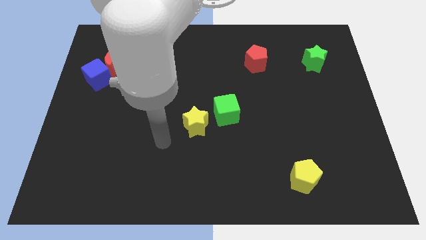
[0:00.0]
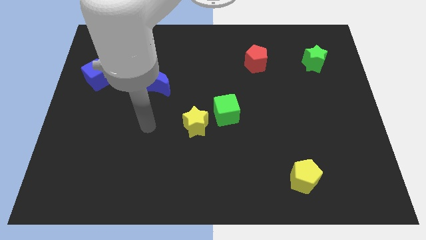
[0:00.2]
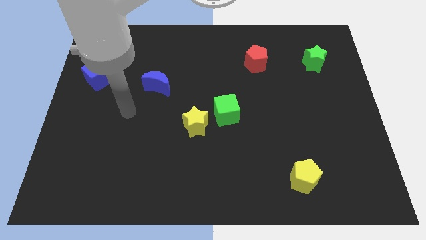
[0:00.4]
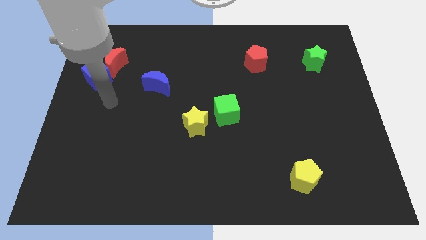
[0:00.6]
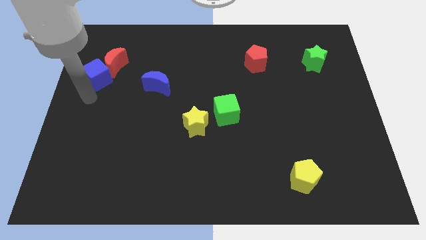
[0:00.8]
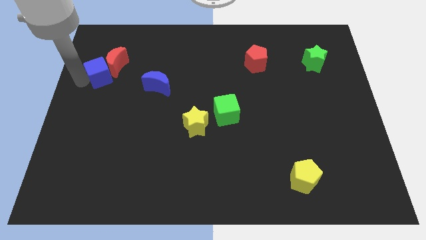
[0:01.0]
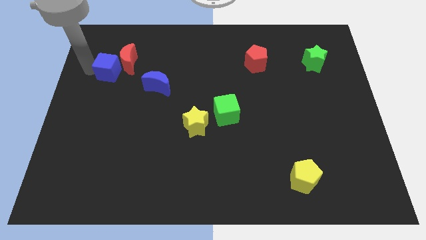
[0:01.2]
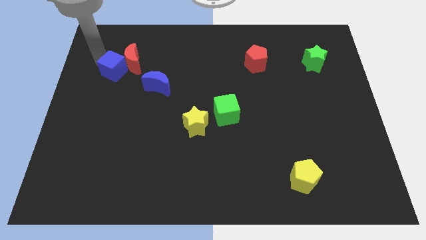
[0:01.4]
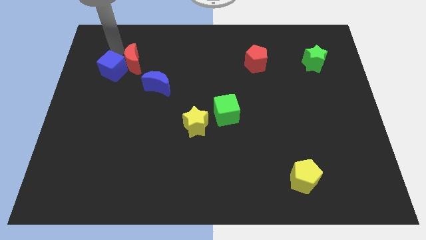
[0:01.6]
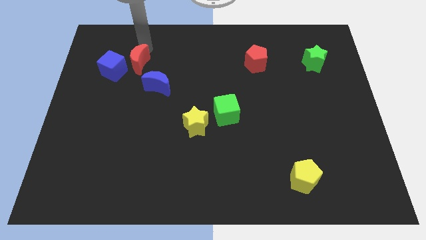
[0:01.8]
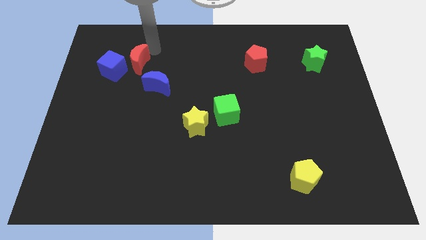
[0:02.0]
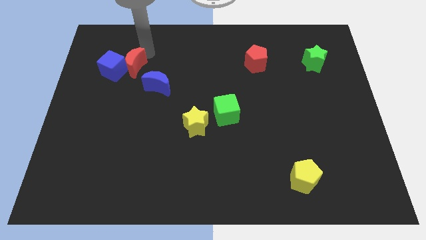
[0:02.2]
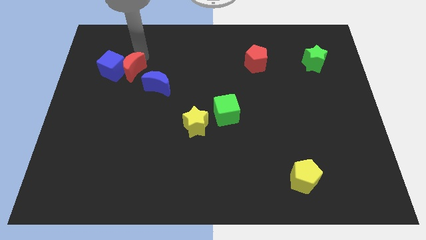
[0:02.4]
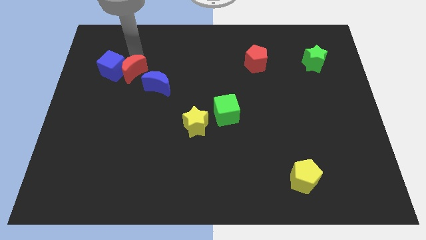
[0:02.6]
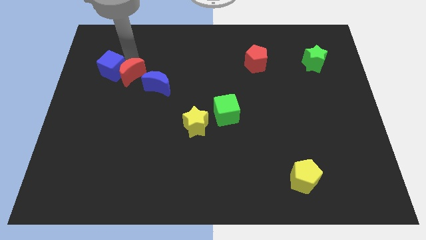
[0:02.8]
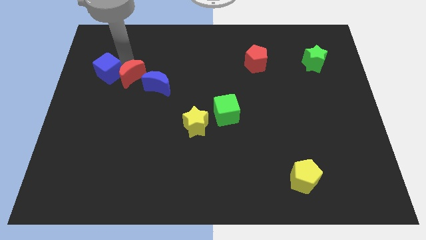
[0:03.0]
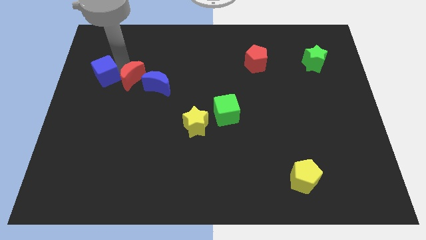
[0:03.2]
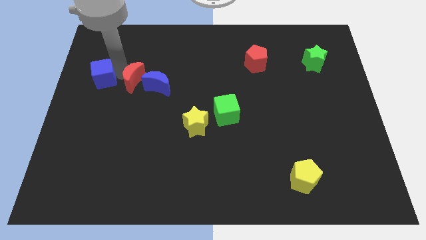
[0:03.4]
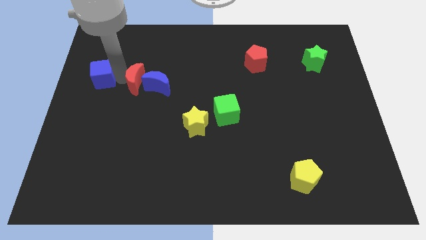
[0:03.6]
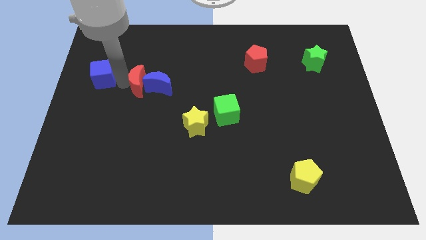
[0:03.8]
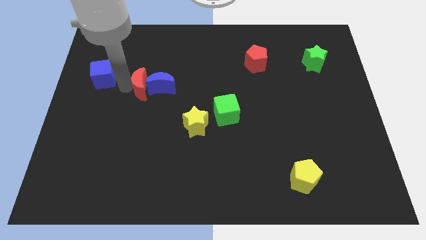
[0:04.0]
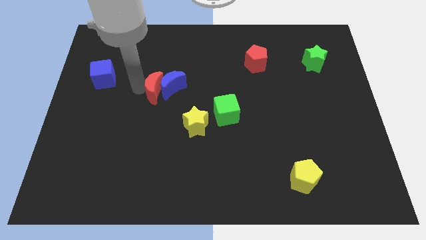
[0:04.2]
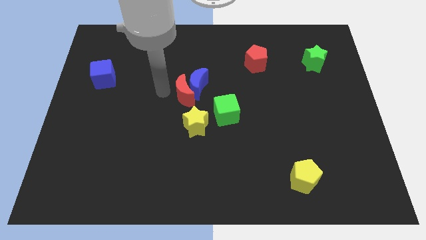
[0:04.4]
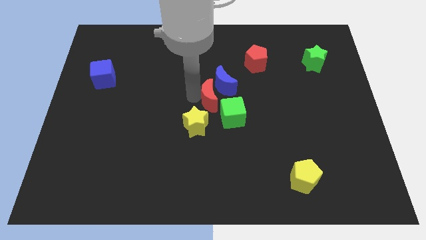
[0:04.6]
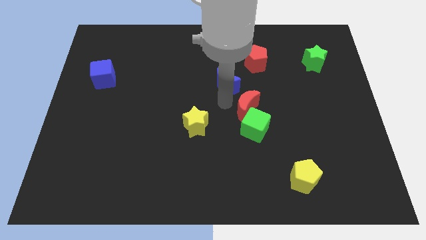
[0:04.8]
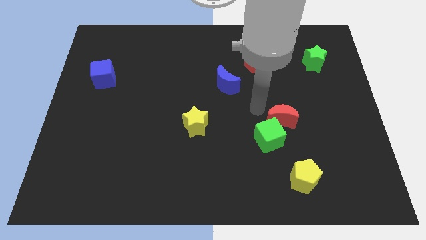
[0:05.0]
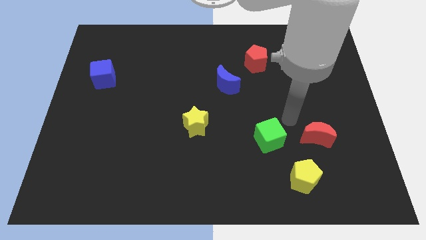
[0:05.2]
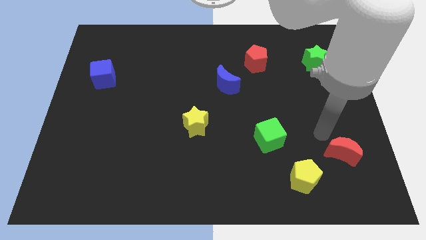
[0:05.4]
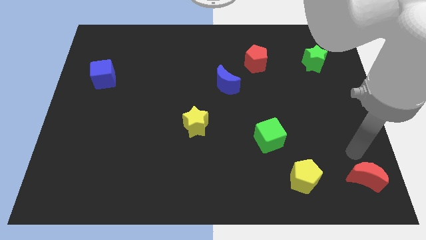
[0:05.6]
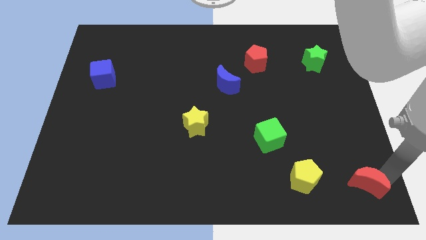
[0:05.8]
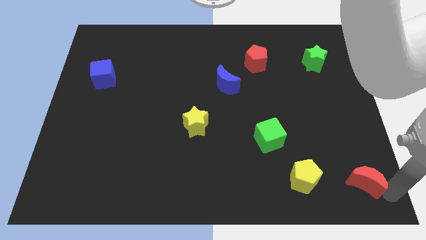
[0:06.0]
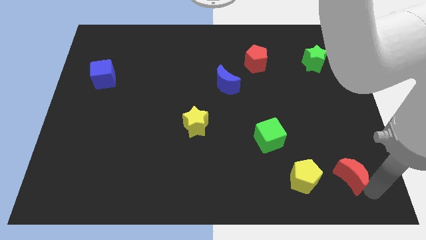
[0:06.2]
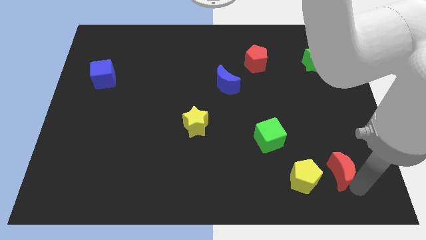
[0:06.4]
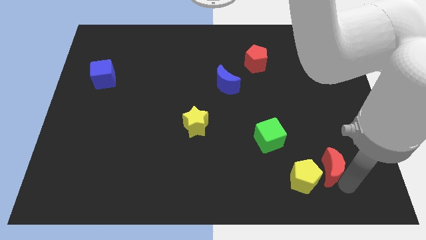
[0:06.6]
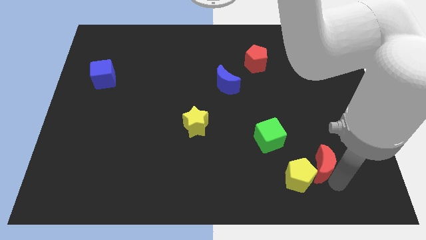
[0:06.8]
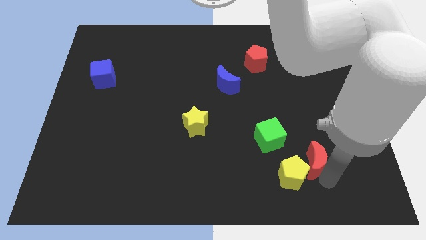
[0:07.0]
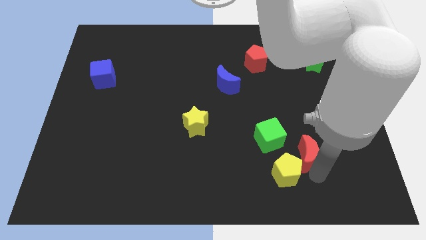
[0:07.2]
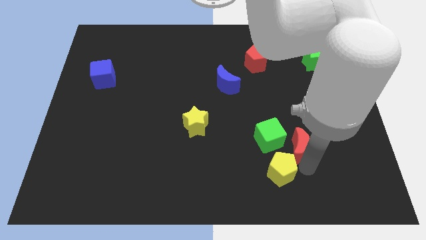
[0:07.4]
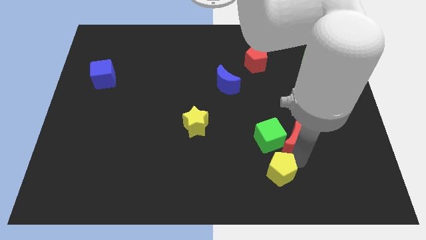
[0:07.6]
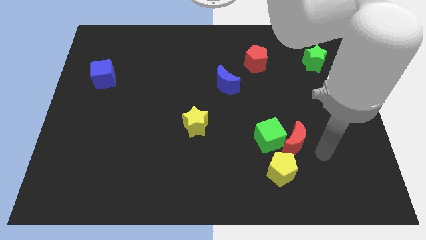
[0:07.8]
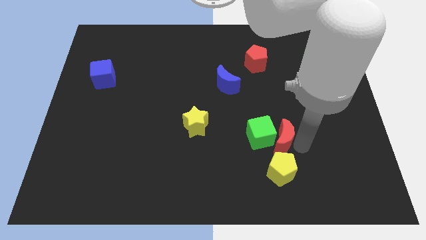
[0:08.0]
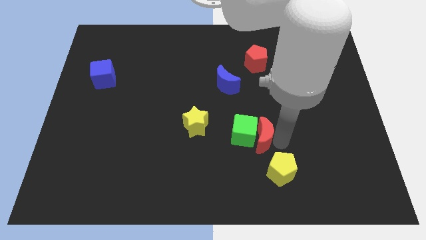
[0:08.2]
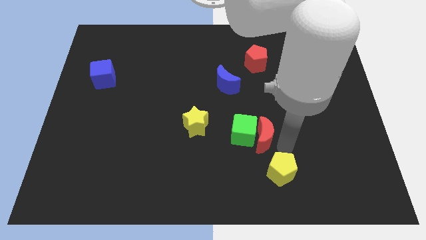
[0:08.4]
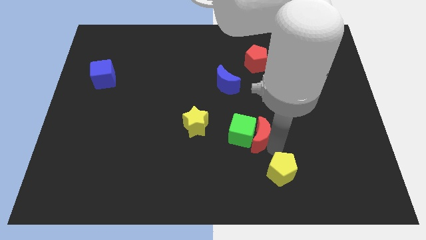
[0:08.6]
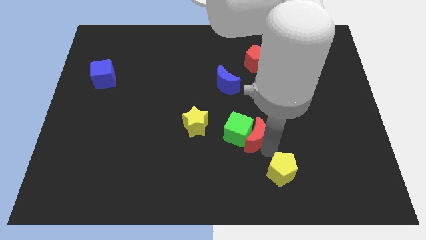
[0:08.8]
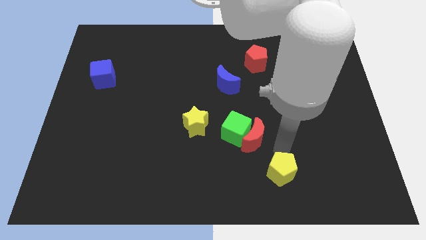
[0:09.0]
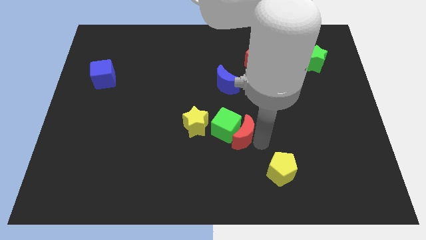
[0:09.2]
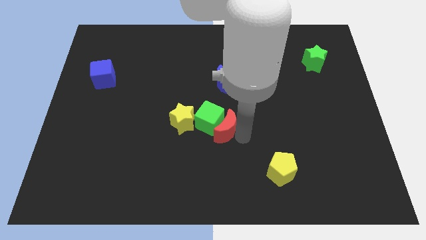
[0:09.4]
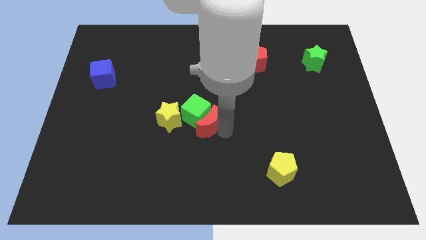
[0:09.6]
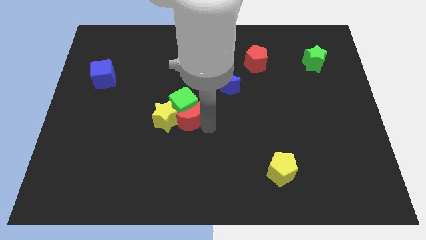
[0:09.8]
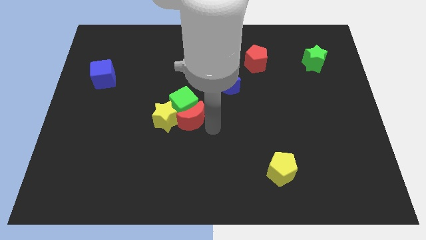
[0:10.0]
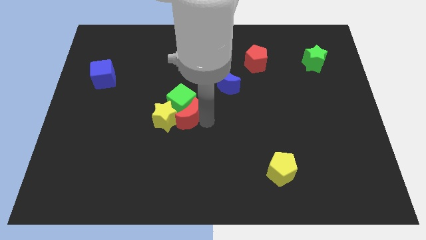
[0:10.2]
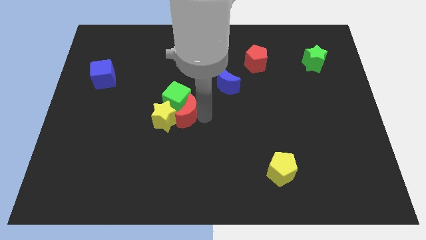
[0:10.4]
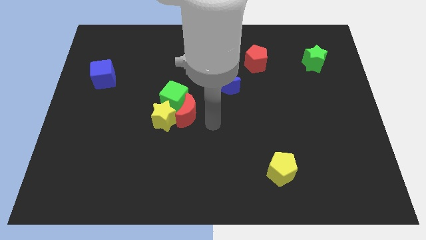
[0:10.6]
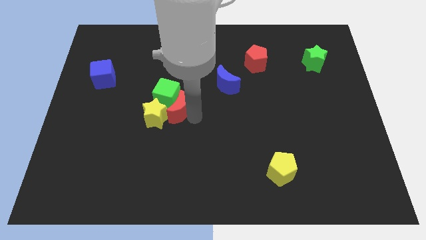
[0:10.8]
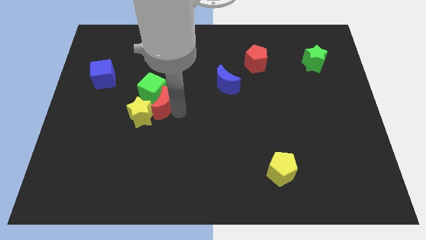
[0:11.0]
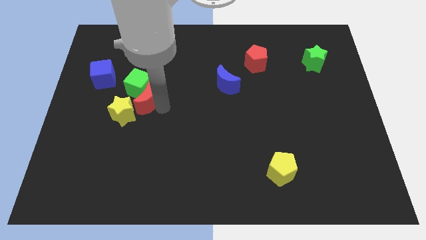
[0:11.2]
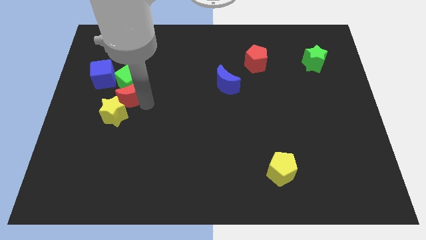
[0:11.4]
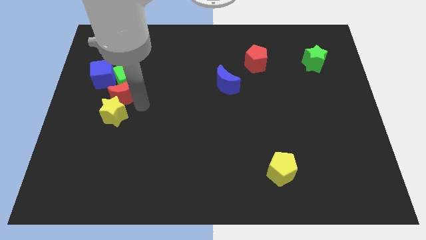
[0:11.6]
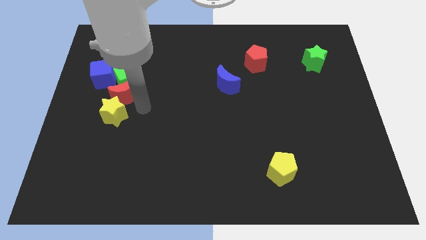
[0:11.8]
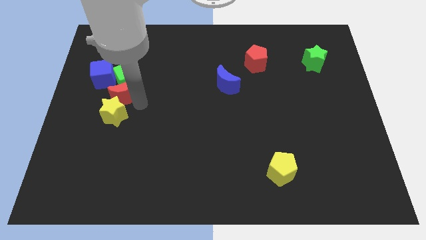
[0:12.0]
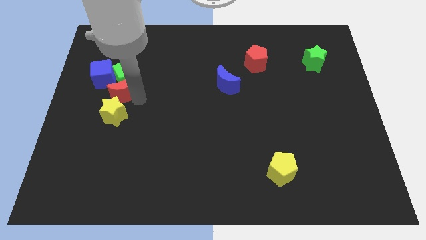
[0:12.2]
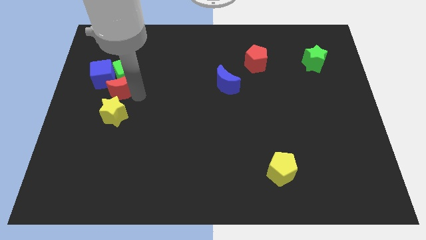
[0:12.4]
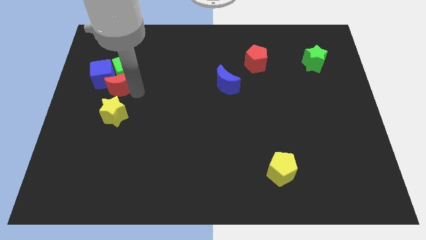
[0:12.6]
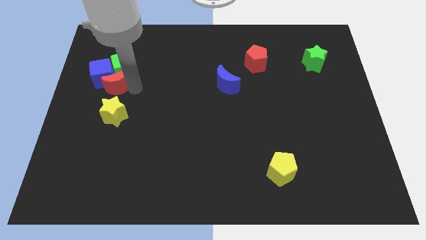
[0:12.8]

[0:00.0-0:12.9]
slide the red moon to the bottom side of the blue cube
